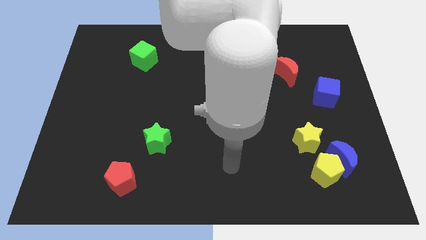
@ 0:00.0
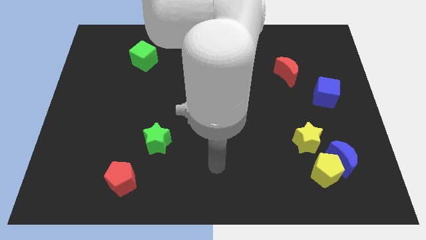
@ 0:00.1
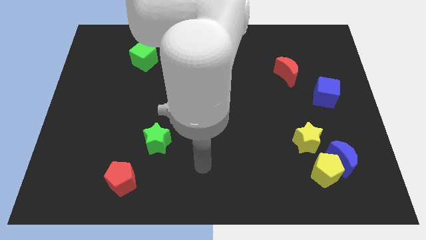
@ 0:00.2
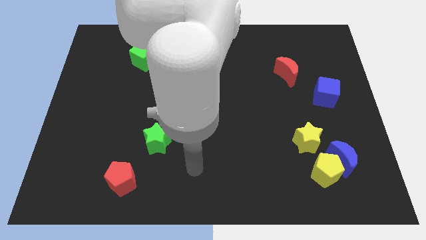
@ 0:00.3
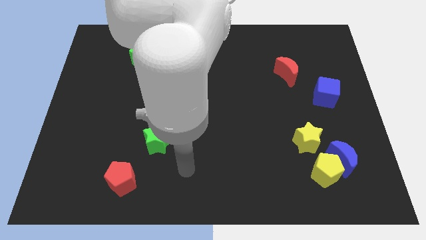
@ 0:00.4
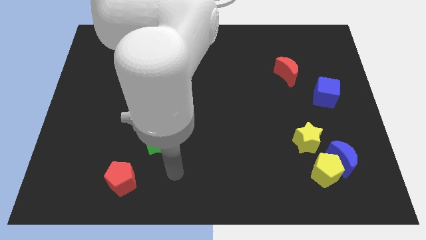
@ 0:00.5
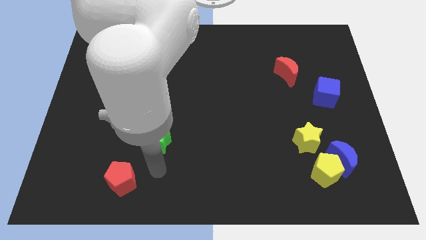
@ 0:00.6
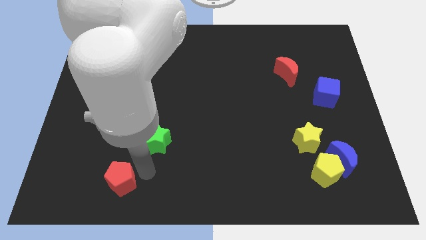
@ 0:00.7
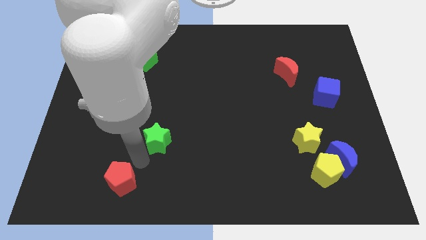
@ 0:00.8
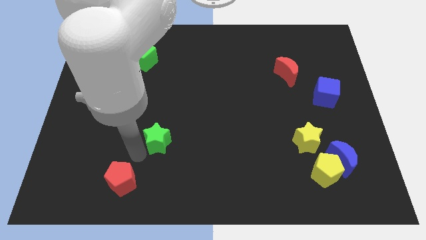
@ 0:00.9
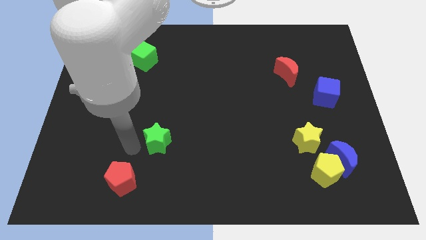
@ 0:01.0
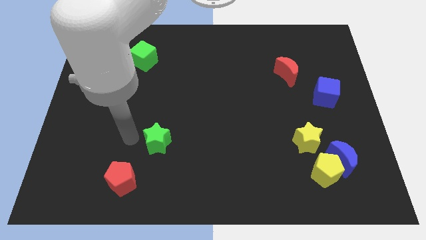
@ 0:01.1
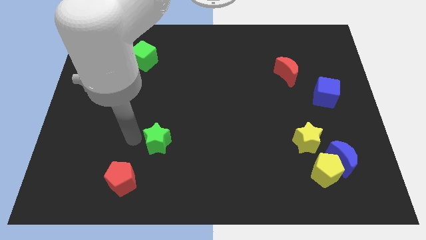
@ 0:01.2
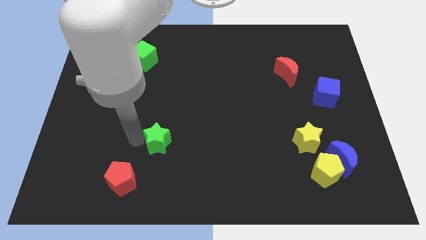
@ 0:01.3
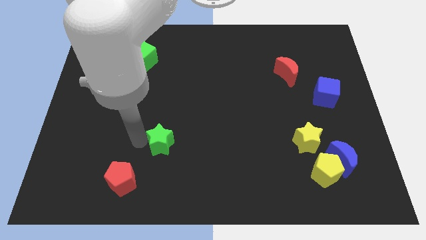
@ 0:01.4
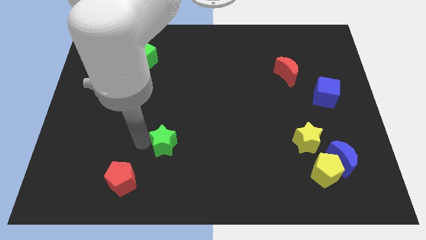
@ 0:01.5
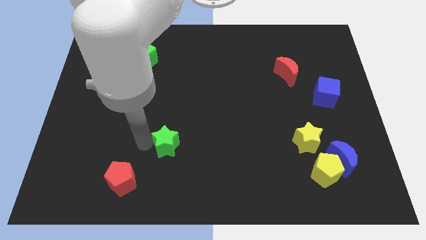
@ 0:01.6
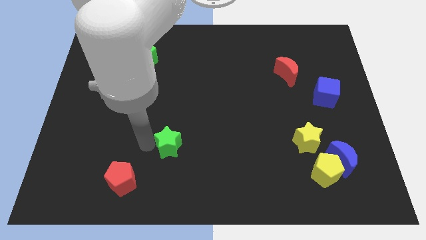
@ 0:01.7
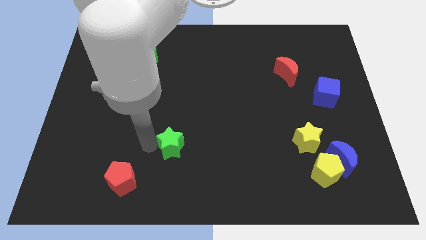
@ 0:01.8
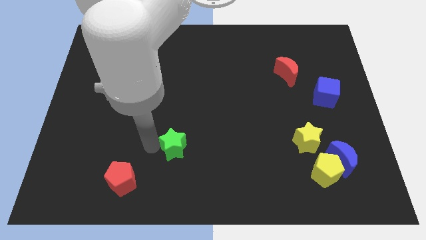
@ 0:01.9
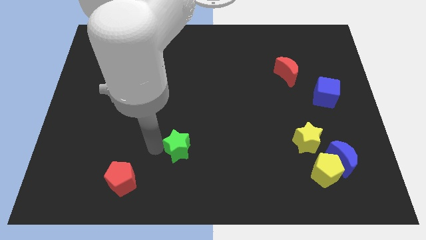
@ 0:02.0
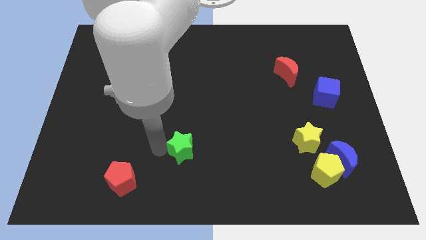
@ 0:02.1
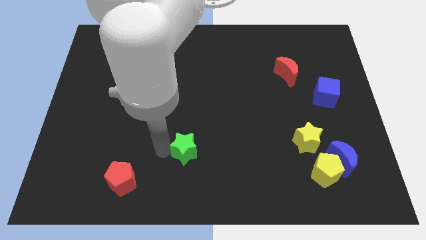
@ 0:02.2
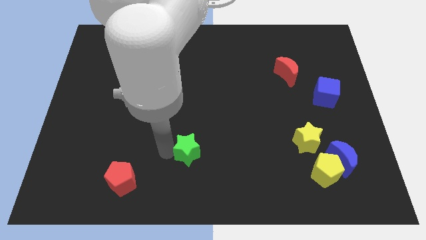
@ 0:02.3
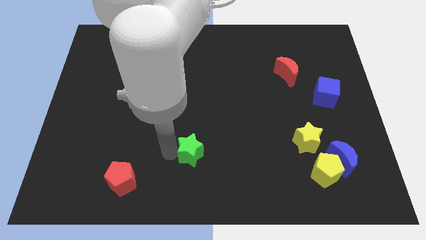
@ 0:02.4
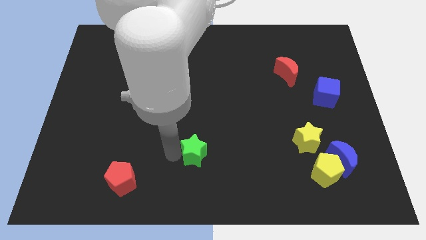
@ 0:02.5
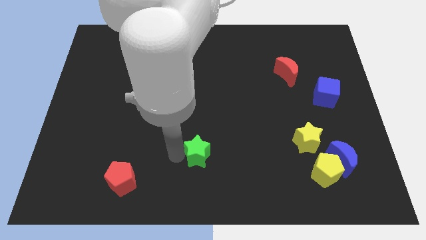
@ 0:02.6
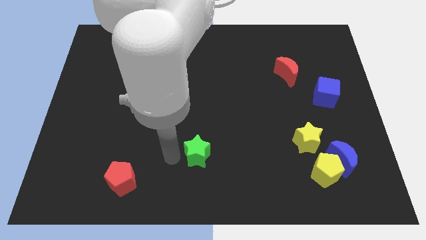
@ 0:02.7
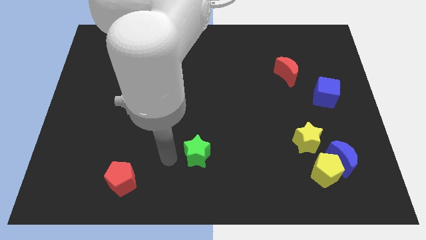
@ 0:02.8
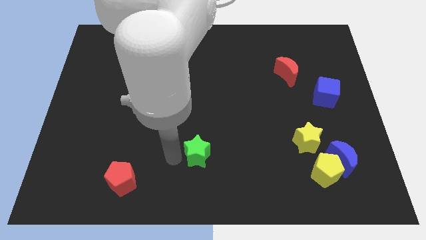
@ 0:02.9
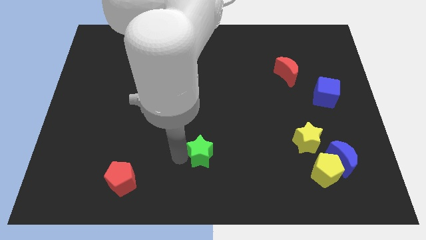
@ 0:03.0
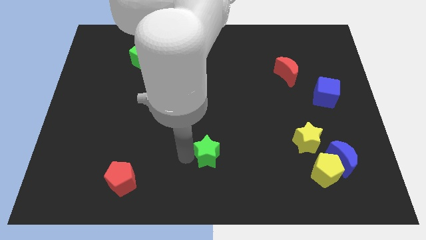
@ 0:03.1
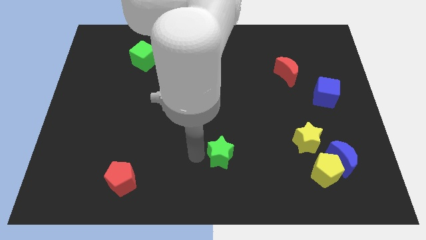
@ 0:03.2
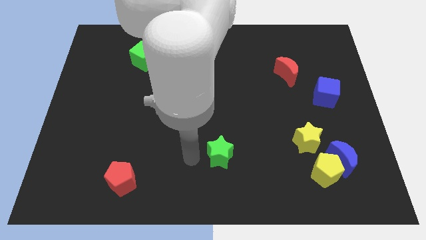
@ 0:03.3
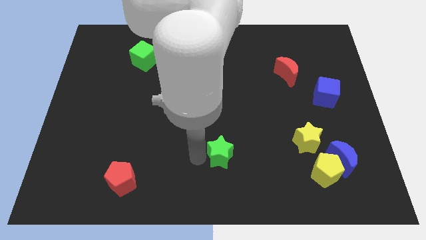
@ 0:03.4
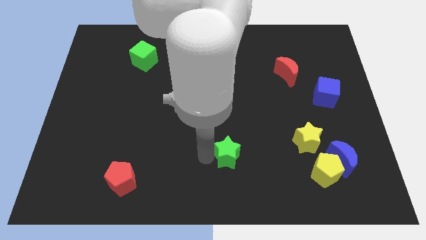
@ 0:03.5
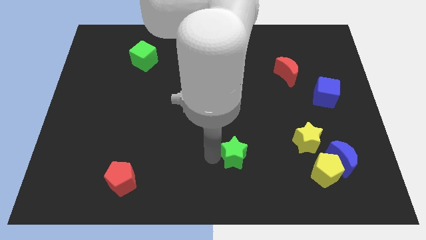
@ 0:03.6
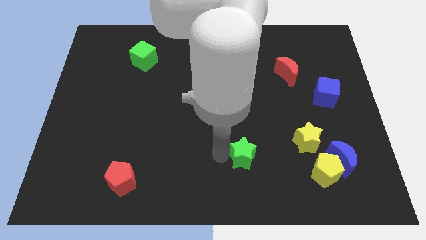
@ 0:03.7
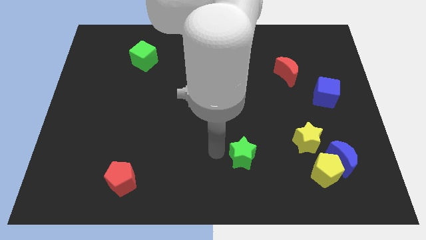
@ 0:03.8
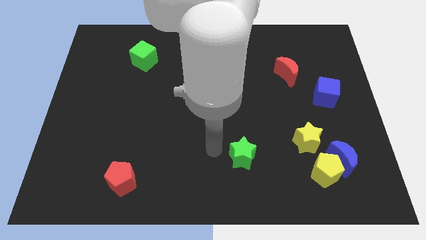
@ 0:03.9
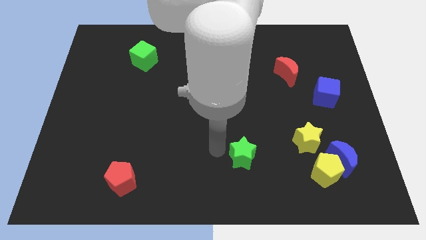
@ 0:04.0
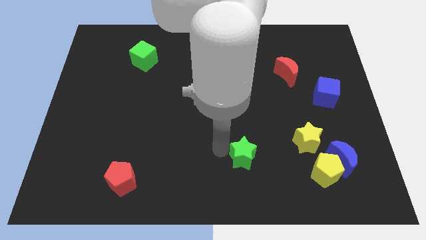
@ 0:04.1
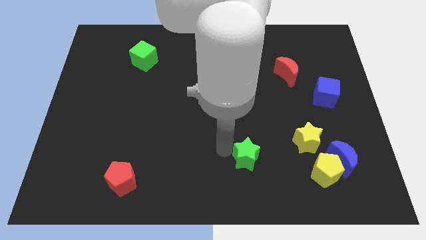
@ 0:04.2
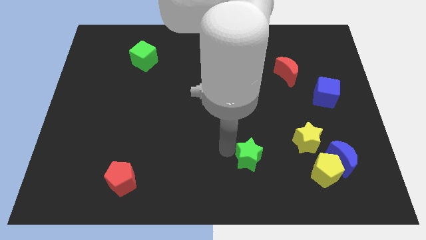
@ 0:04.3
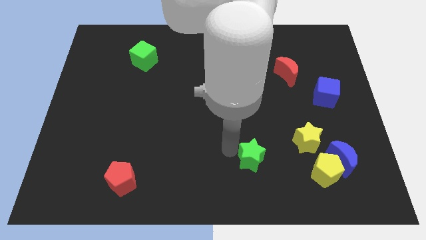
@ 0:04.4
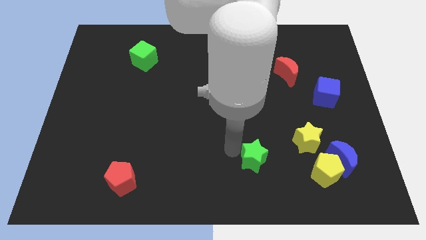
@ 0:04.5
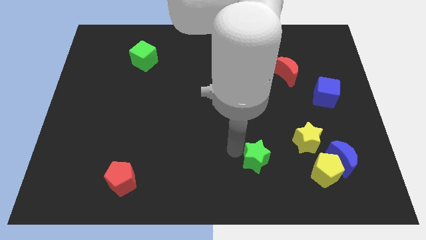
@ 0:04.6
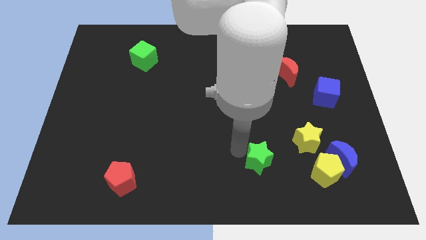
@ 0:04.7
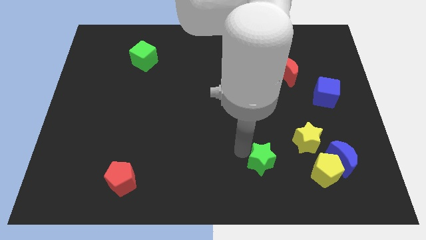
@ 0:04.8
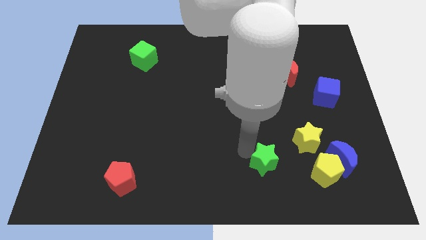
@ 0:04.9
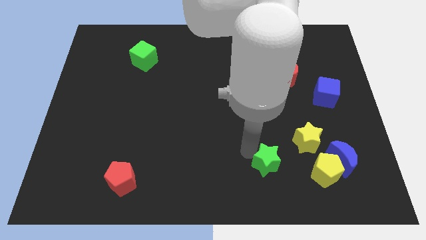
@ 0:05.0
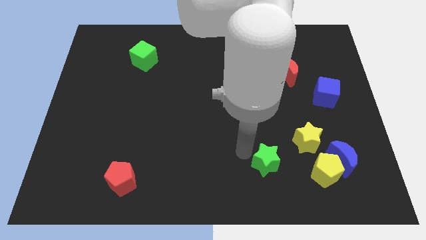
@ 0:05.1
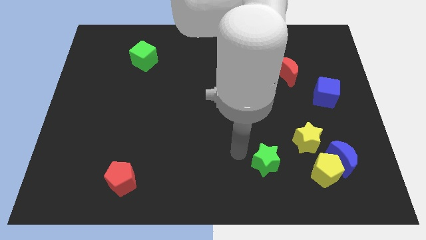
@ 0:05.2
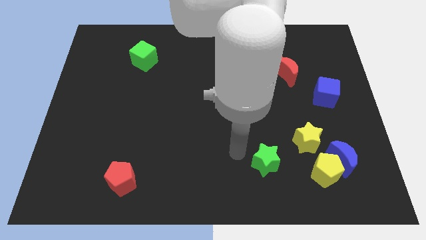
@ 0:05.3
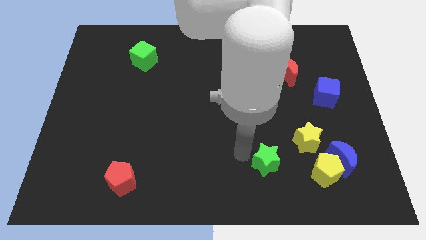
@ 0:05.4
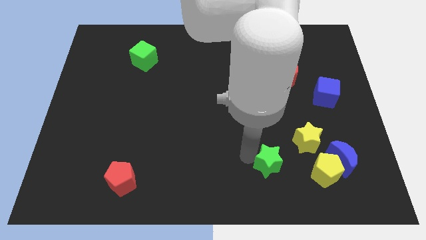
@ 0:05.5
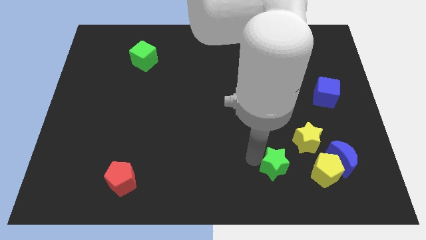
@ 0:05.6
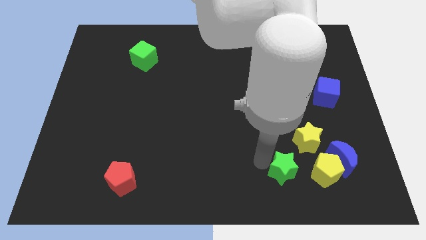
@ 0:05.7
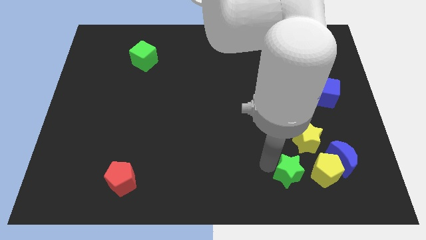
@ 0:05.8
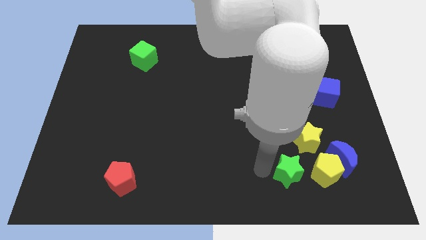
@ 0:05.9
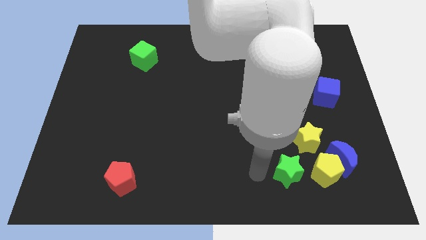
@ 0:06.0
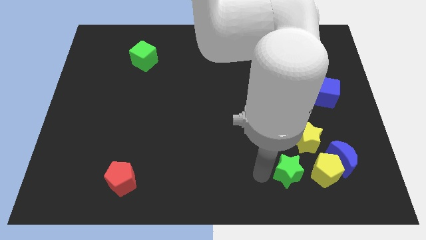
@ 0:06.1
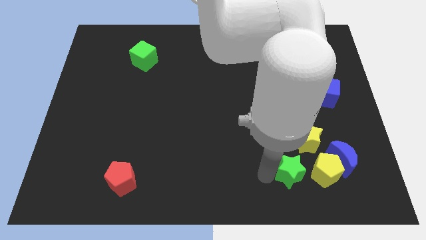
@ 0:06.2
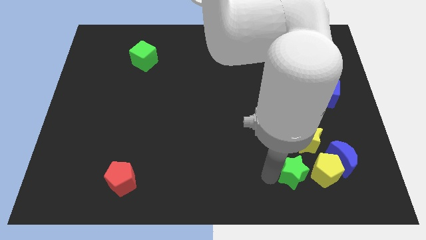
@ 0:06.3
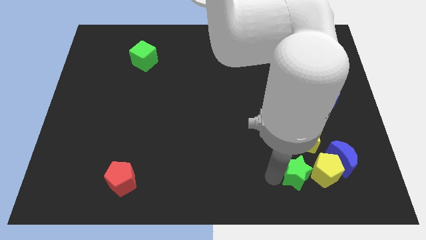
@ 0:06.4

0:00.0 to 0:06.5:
push the green star next to the yellow pentagon

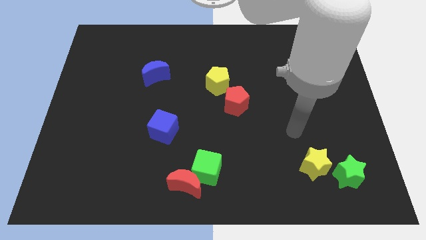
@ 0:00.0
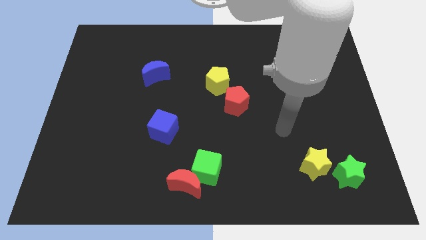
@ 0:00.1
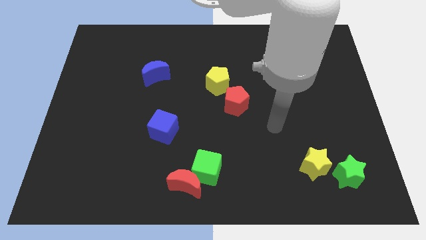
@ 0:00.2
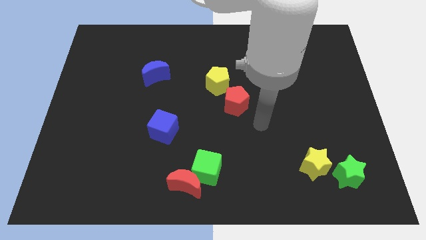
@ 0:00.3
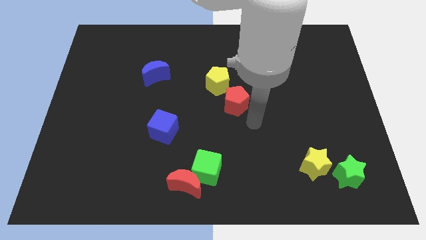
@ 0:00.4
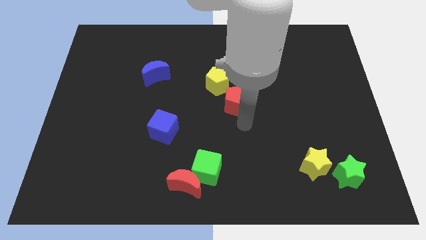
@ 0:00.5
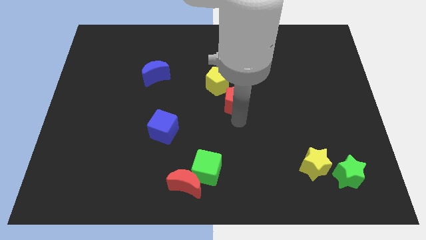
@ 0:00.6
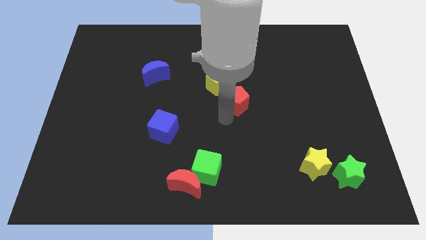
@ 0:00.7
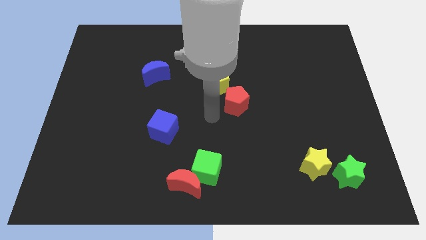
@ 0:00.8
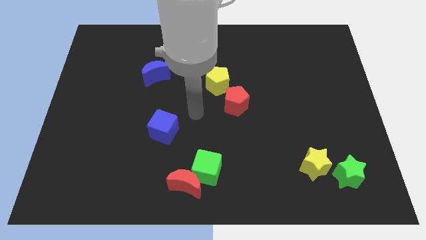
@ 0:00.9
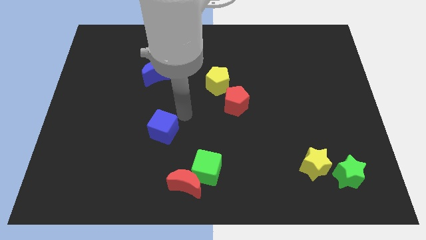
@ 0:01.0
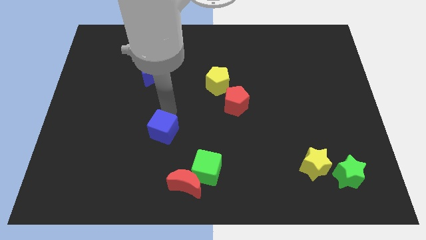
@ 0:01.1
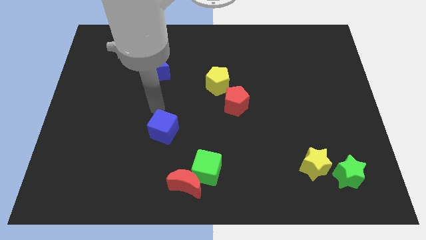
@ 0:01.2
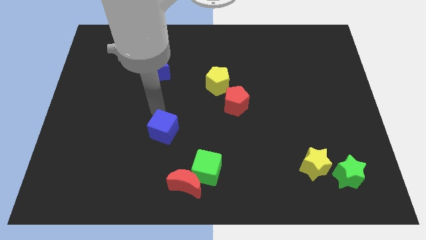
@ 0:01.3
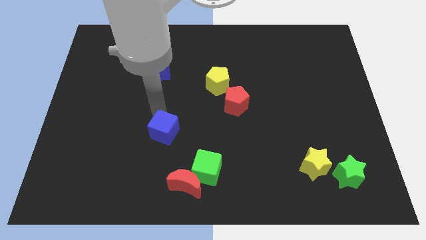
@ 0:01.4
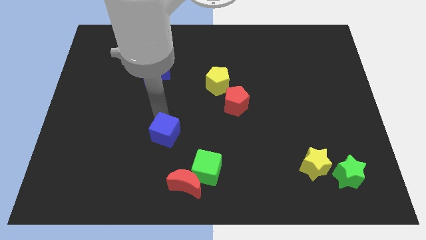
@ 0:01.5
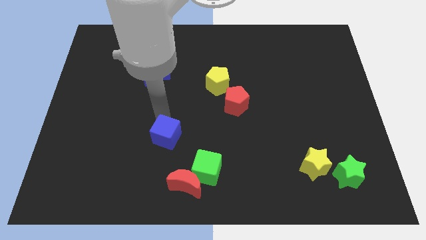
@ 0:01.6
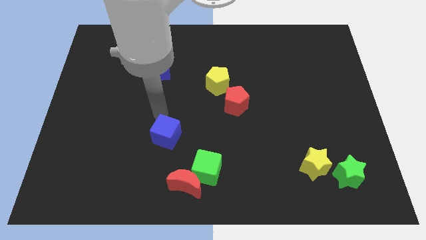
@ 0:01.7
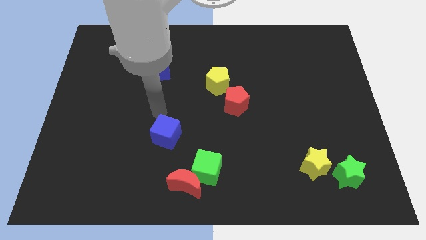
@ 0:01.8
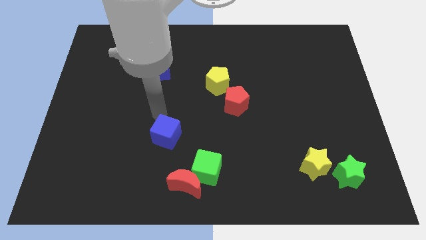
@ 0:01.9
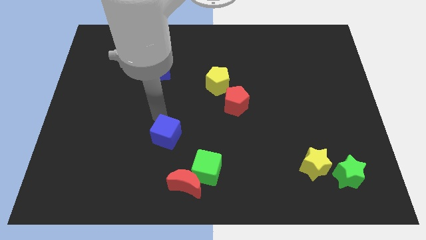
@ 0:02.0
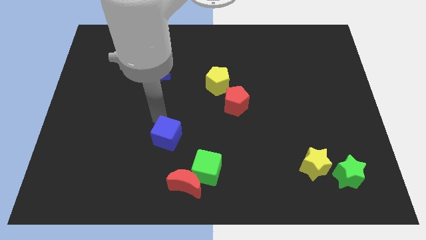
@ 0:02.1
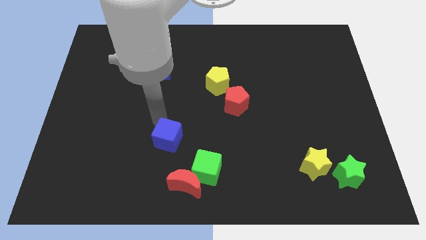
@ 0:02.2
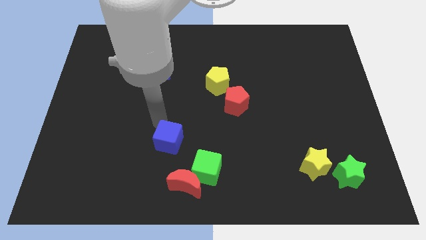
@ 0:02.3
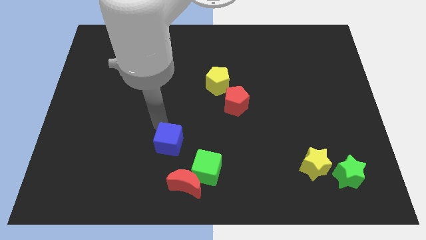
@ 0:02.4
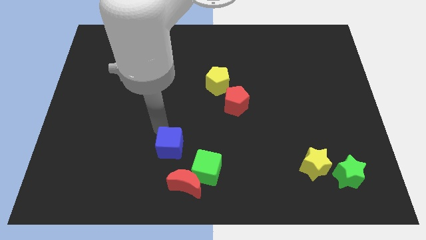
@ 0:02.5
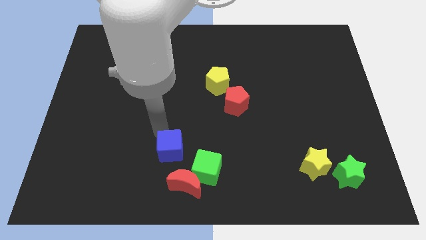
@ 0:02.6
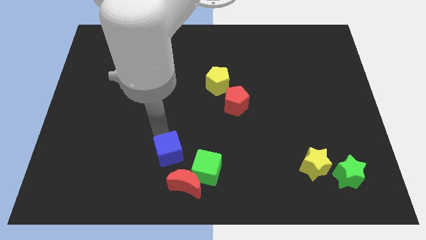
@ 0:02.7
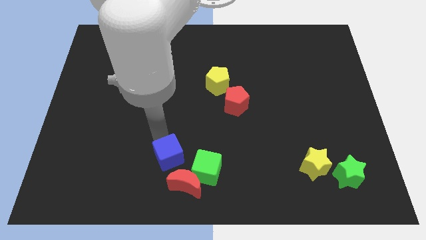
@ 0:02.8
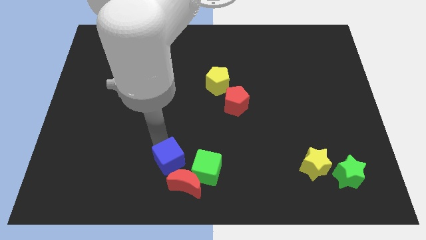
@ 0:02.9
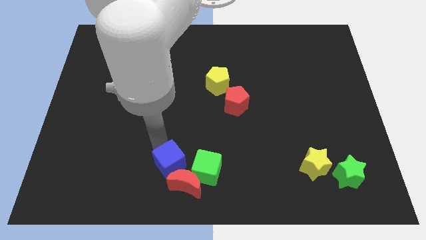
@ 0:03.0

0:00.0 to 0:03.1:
move the blue cube to the red moon
